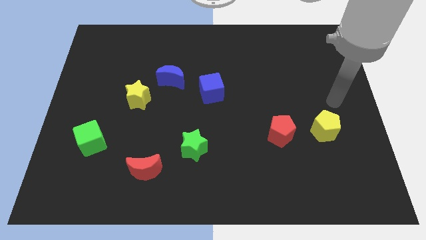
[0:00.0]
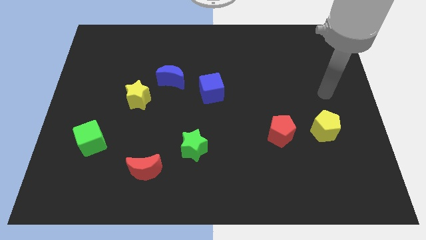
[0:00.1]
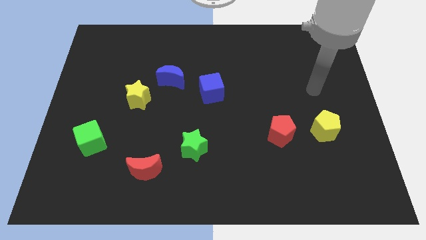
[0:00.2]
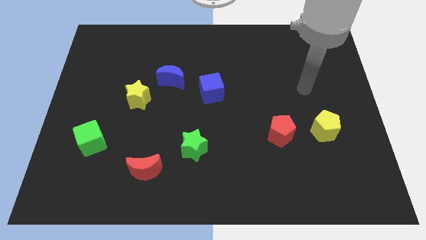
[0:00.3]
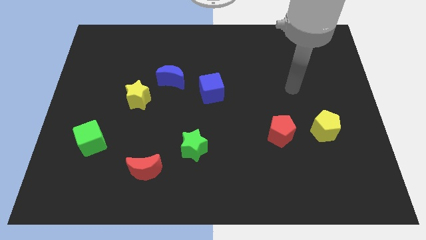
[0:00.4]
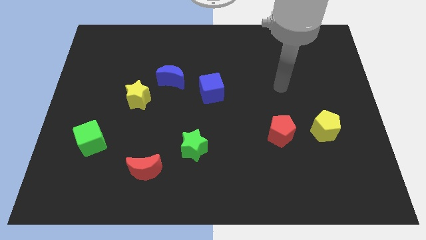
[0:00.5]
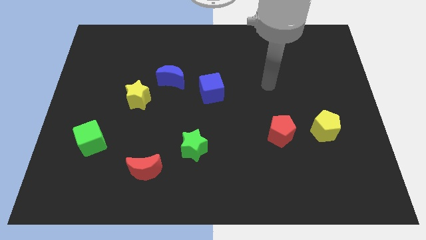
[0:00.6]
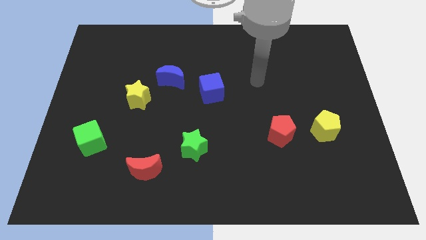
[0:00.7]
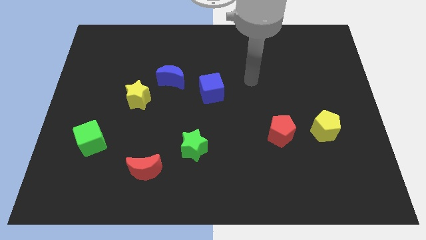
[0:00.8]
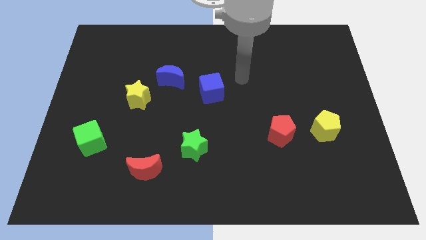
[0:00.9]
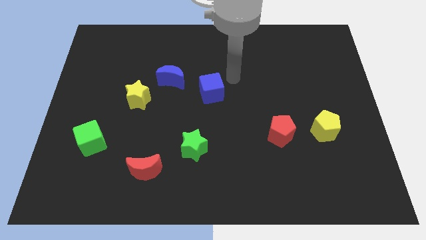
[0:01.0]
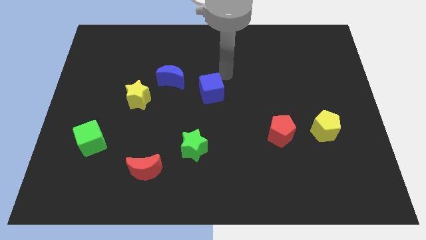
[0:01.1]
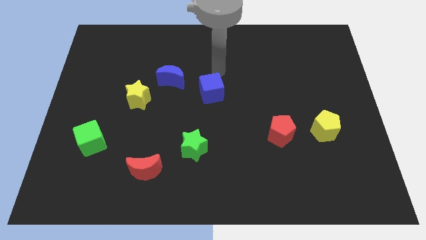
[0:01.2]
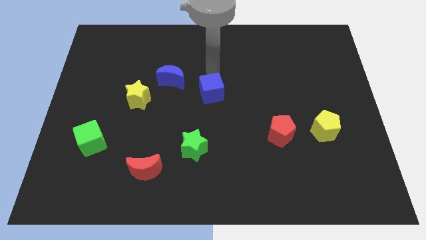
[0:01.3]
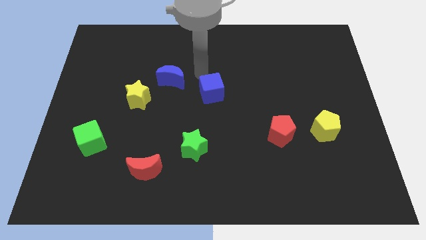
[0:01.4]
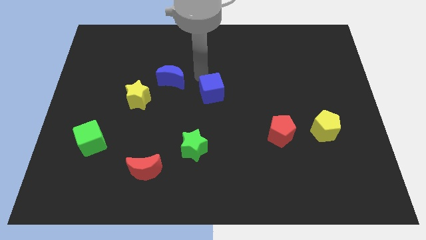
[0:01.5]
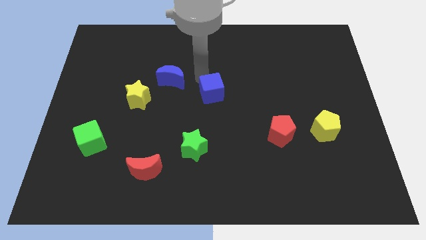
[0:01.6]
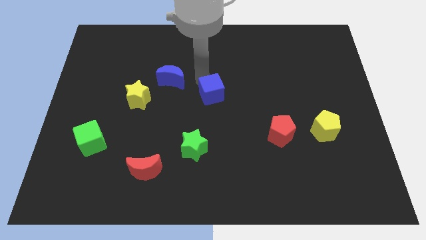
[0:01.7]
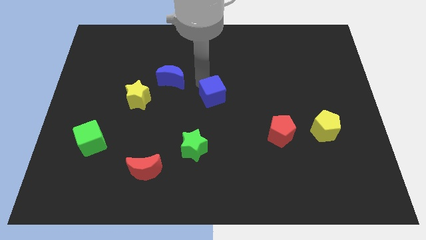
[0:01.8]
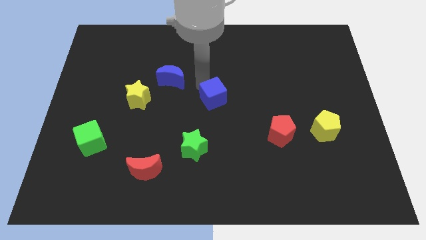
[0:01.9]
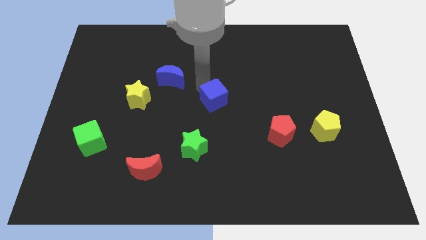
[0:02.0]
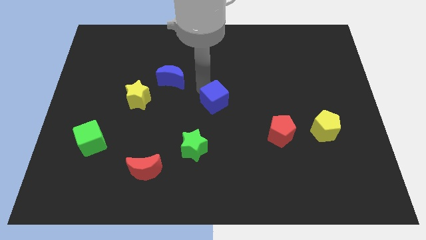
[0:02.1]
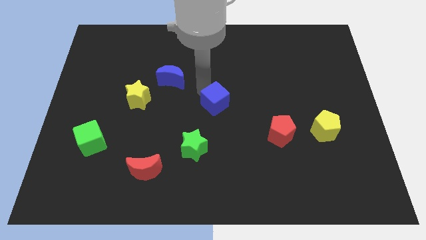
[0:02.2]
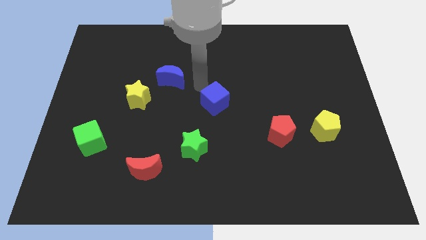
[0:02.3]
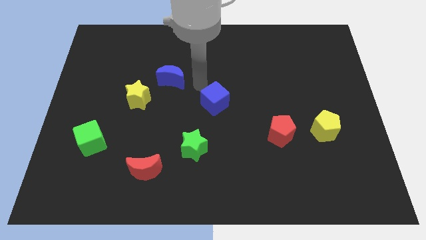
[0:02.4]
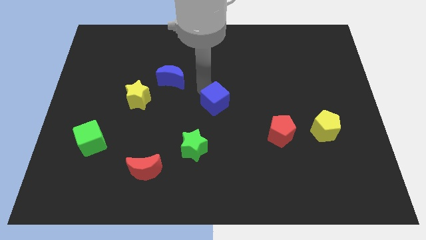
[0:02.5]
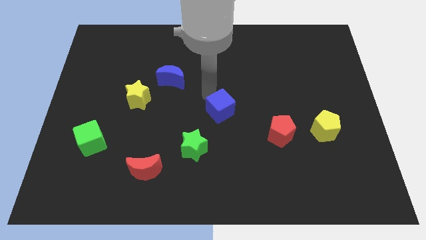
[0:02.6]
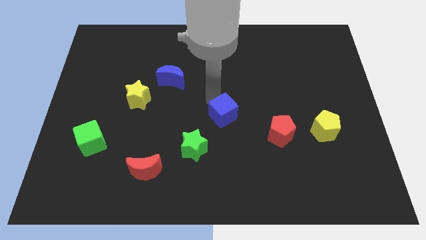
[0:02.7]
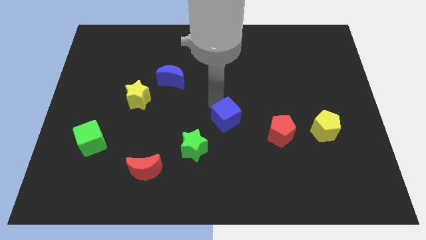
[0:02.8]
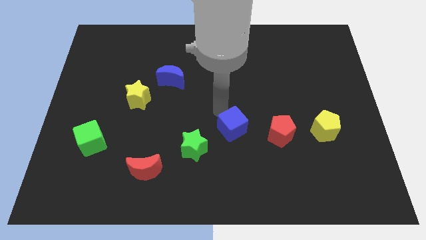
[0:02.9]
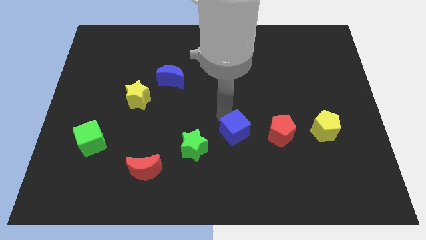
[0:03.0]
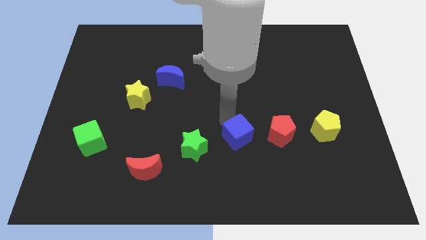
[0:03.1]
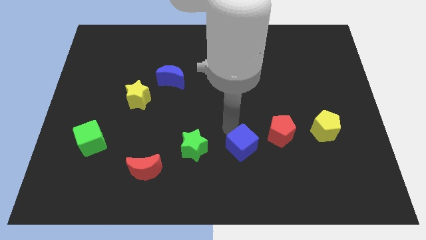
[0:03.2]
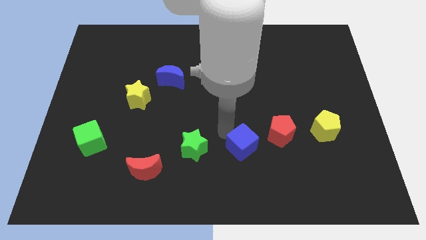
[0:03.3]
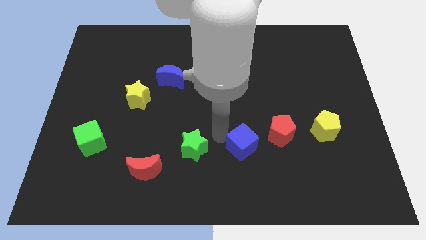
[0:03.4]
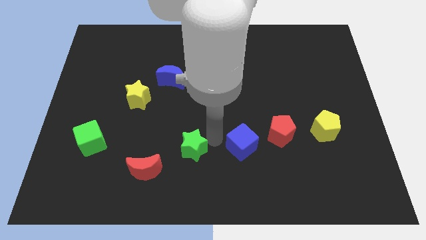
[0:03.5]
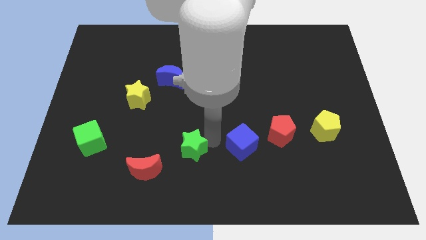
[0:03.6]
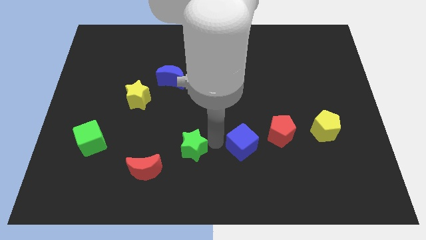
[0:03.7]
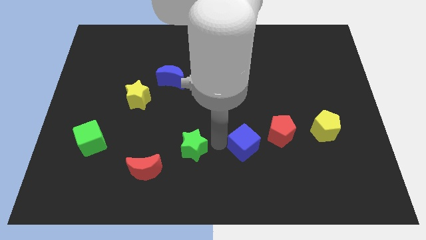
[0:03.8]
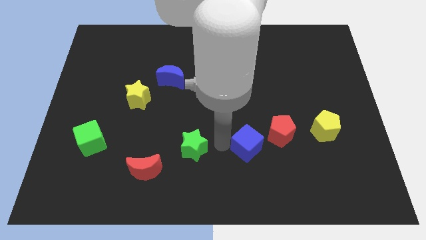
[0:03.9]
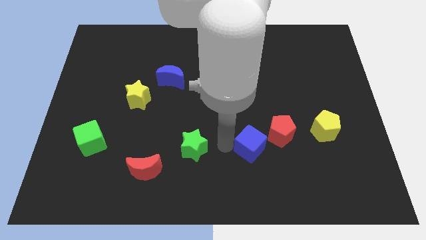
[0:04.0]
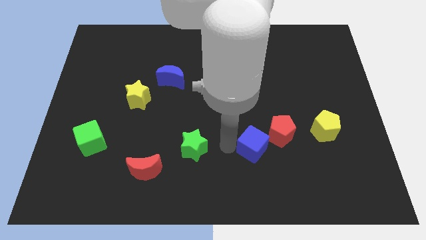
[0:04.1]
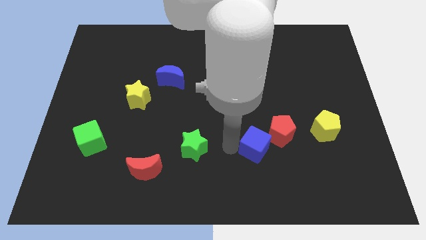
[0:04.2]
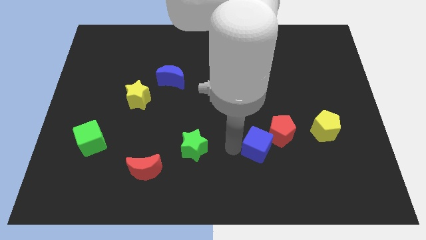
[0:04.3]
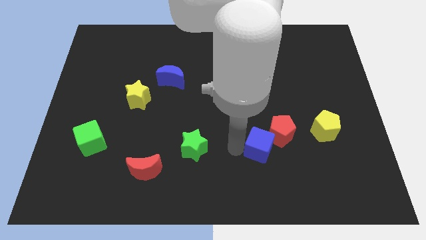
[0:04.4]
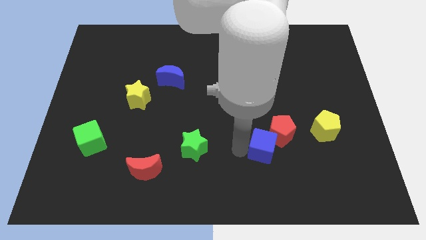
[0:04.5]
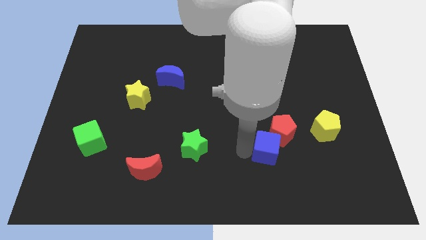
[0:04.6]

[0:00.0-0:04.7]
slide the blue cube downwards and then right

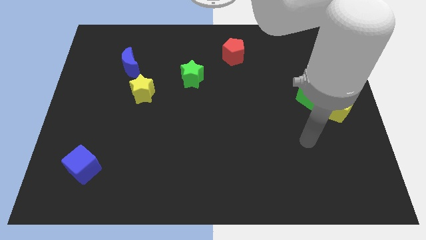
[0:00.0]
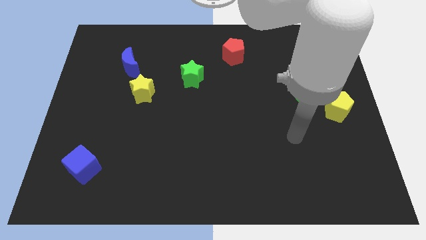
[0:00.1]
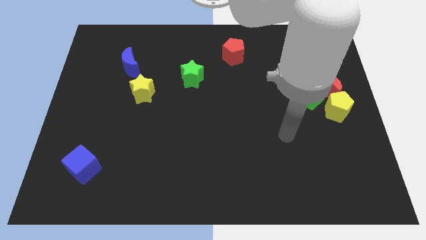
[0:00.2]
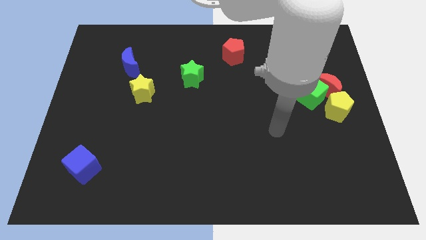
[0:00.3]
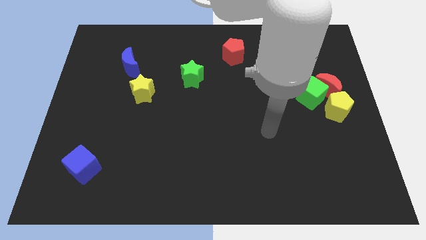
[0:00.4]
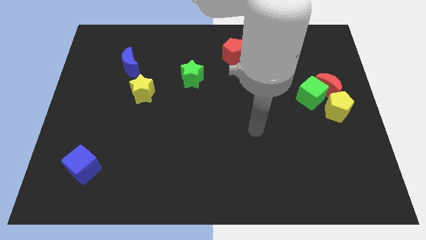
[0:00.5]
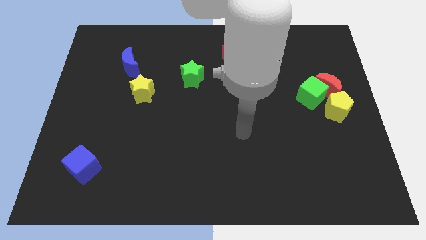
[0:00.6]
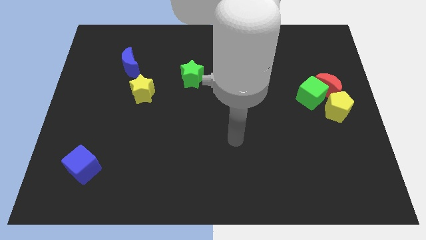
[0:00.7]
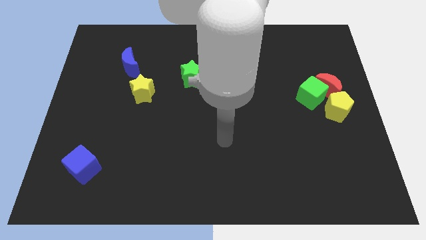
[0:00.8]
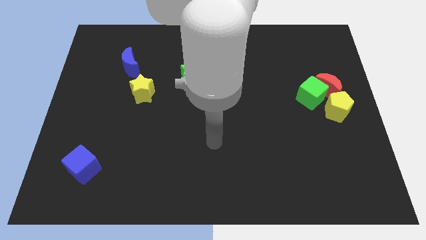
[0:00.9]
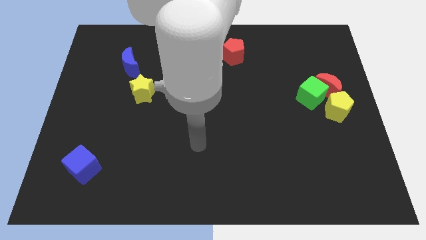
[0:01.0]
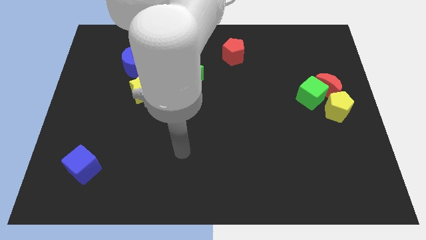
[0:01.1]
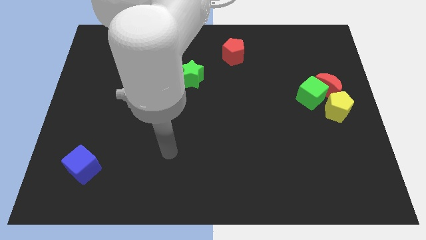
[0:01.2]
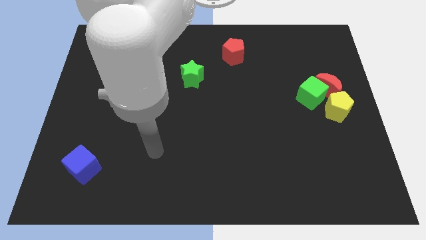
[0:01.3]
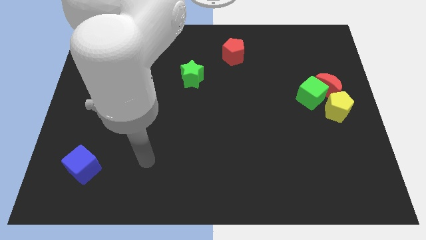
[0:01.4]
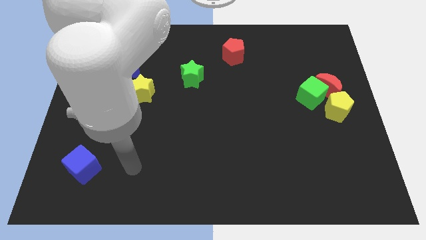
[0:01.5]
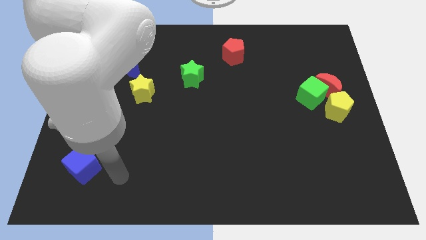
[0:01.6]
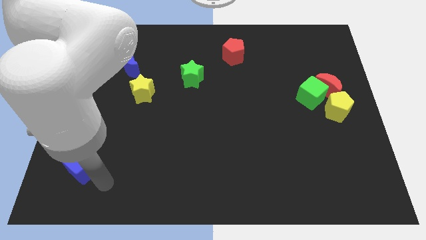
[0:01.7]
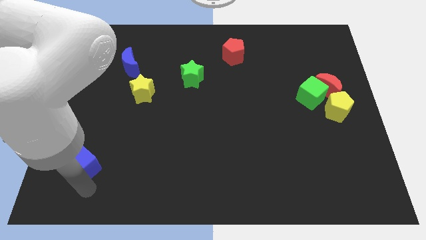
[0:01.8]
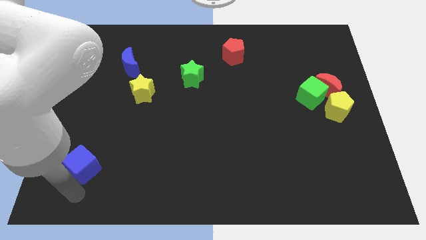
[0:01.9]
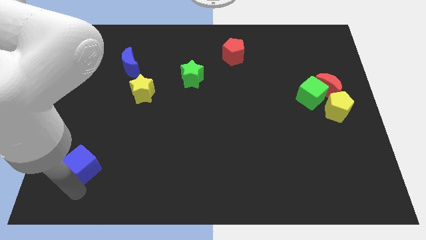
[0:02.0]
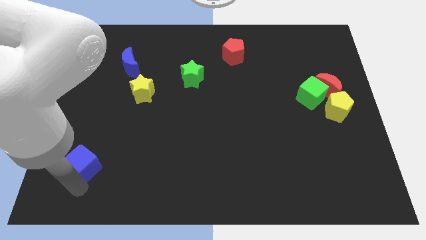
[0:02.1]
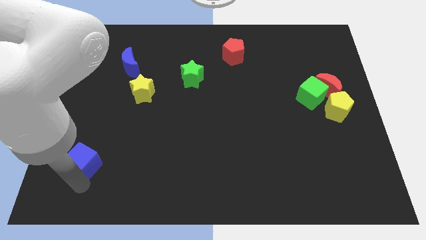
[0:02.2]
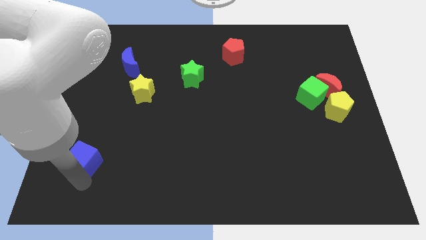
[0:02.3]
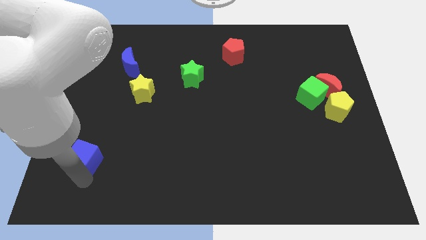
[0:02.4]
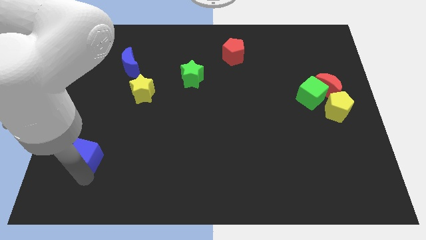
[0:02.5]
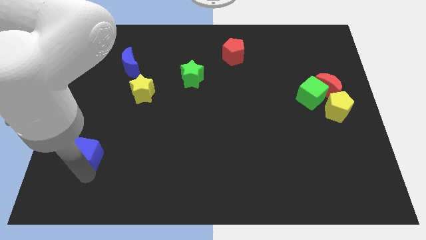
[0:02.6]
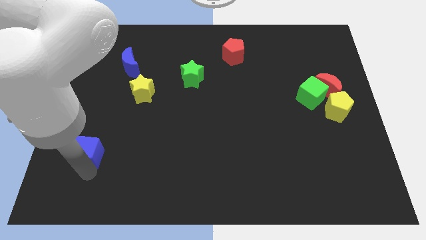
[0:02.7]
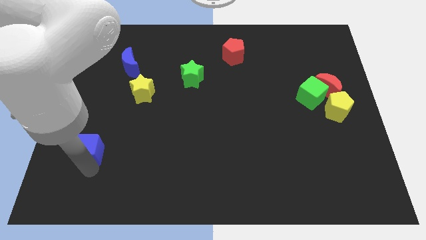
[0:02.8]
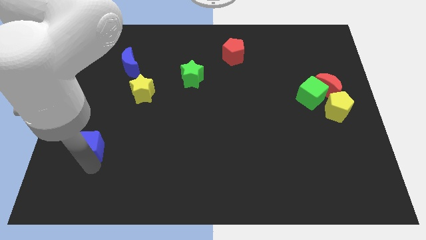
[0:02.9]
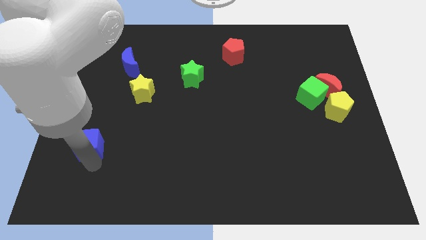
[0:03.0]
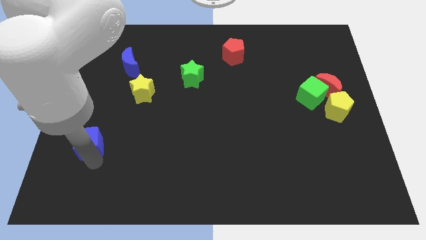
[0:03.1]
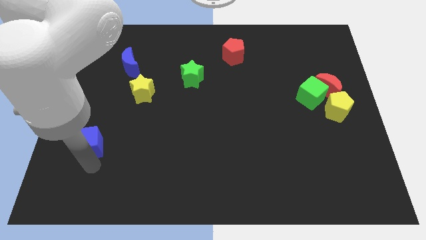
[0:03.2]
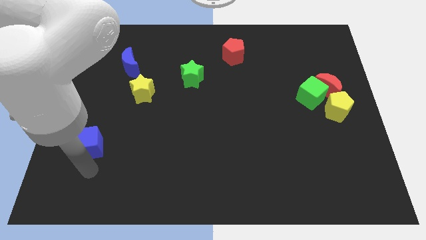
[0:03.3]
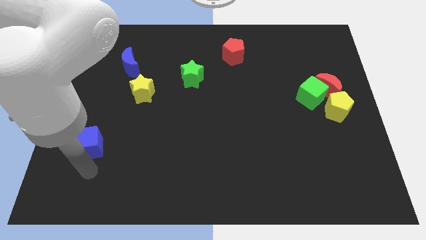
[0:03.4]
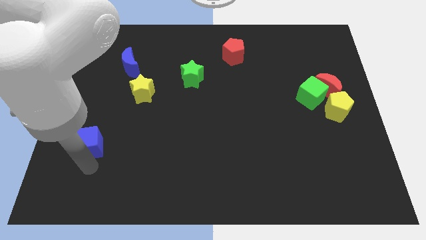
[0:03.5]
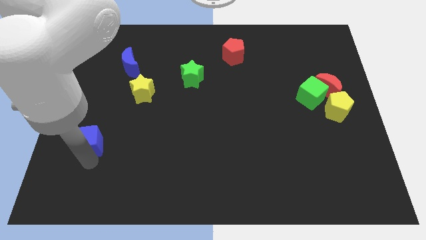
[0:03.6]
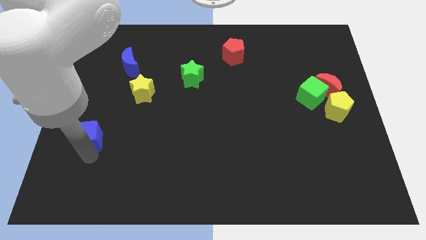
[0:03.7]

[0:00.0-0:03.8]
move the blue cube up slightly
